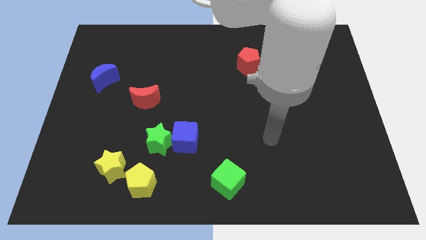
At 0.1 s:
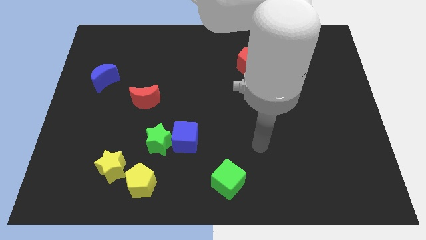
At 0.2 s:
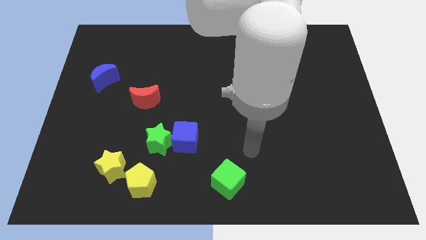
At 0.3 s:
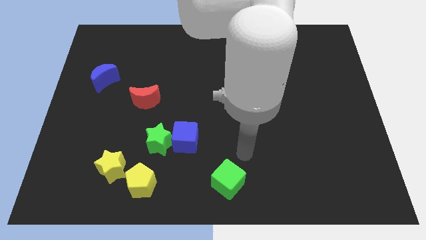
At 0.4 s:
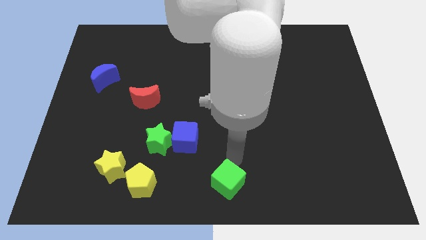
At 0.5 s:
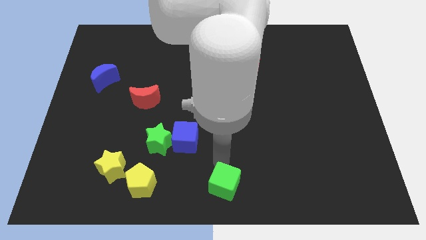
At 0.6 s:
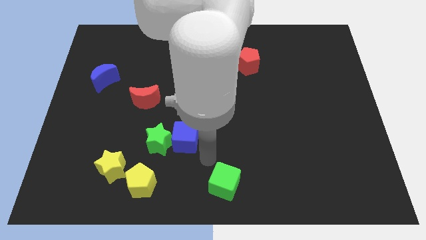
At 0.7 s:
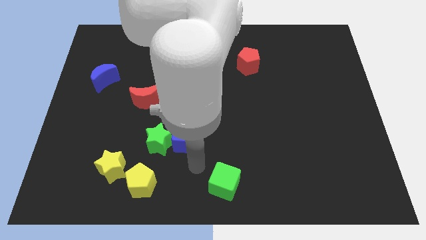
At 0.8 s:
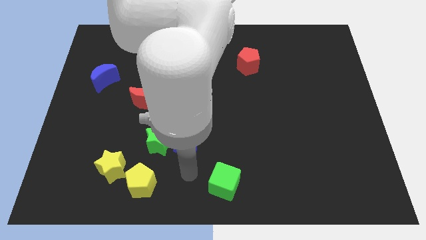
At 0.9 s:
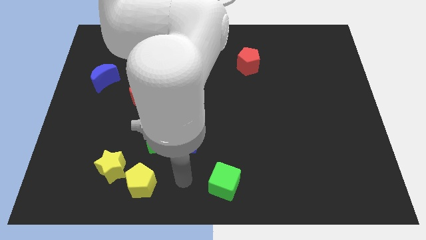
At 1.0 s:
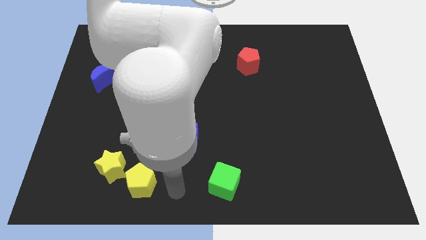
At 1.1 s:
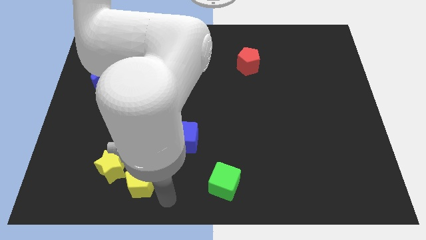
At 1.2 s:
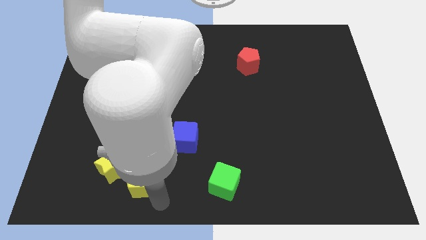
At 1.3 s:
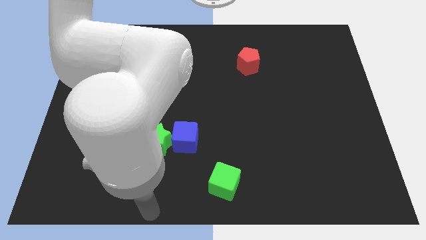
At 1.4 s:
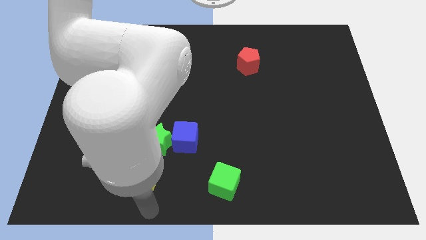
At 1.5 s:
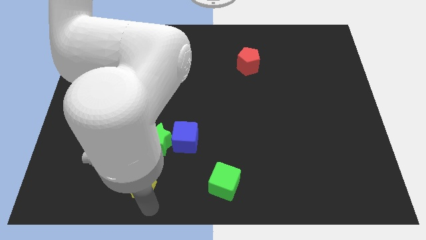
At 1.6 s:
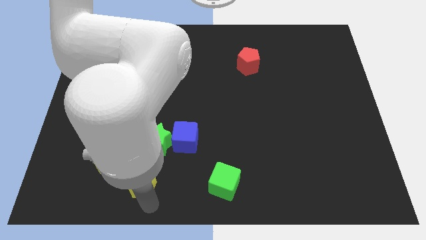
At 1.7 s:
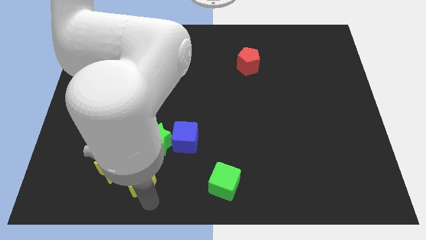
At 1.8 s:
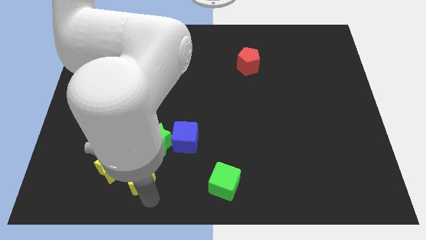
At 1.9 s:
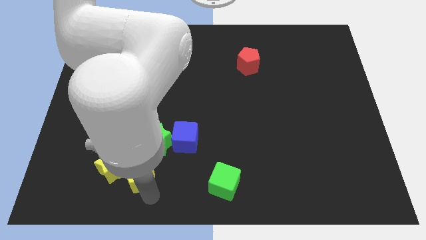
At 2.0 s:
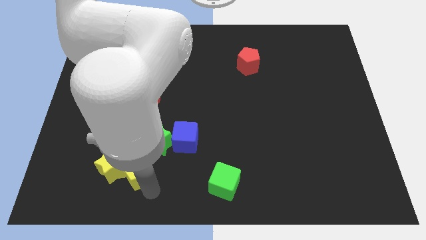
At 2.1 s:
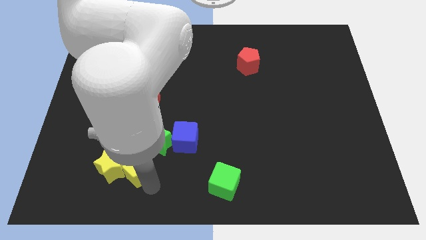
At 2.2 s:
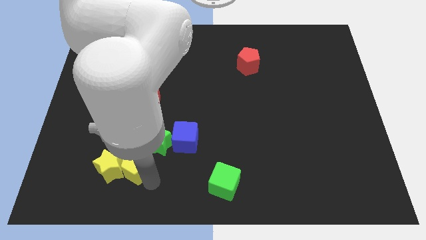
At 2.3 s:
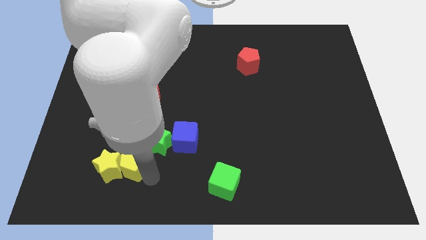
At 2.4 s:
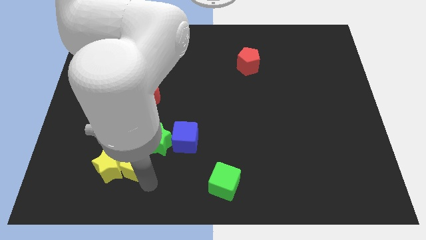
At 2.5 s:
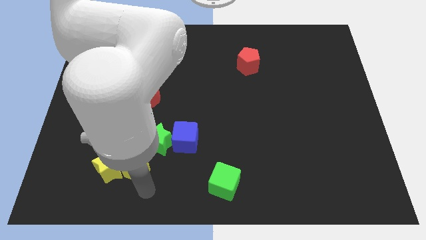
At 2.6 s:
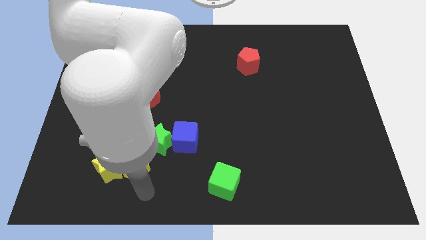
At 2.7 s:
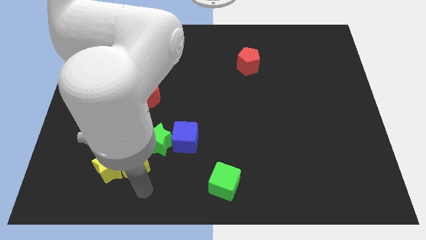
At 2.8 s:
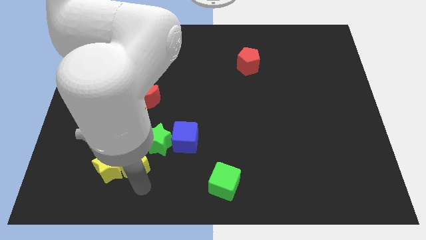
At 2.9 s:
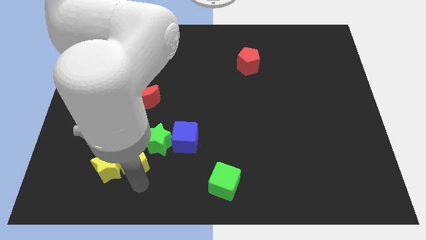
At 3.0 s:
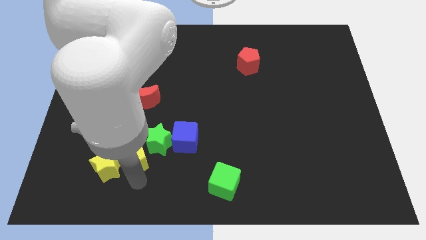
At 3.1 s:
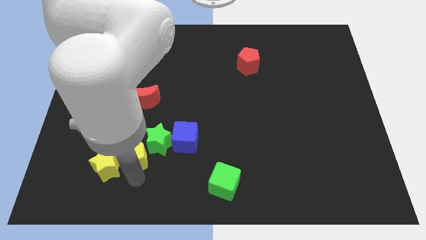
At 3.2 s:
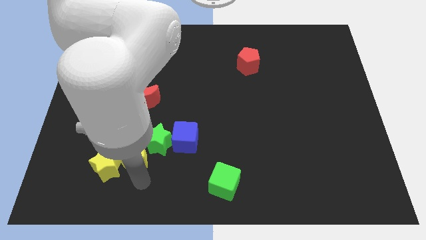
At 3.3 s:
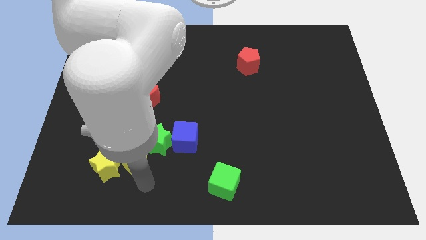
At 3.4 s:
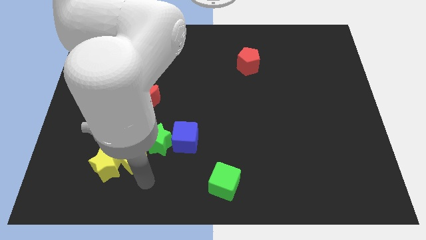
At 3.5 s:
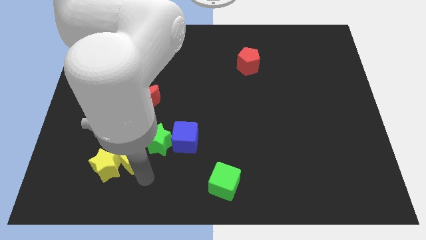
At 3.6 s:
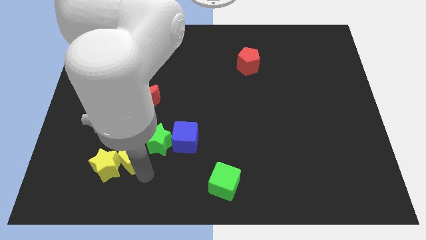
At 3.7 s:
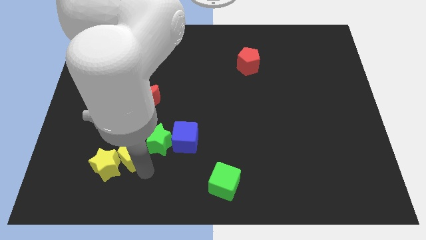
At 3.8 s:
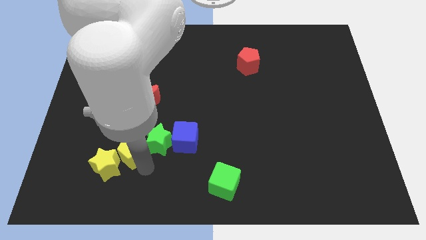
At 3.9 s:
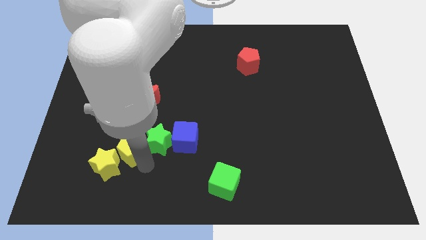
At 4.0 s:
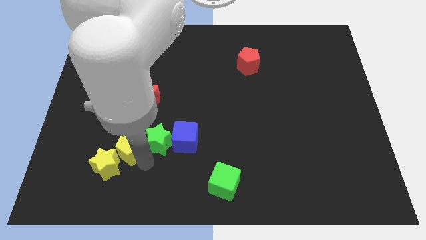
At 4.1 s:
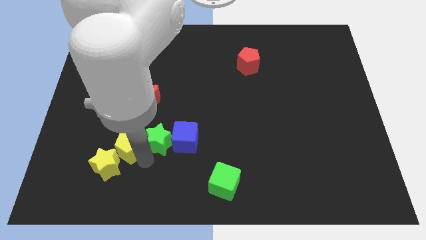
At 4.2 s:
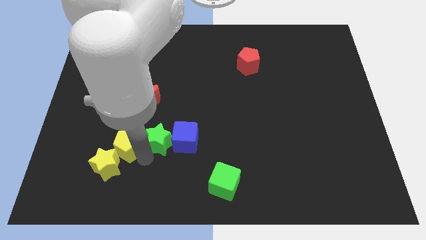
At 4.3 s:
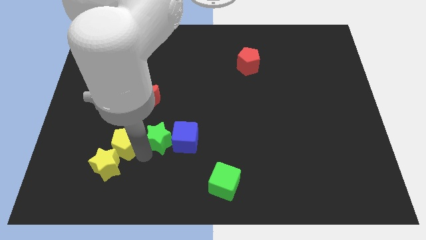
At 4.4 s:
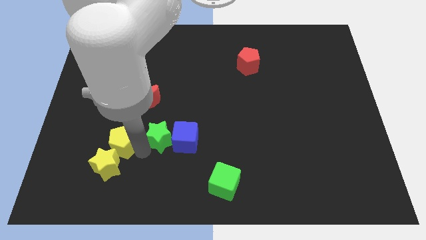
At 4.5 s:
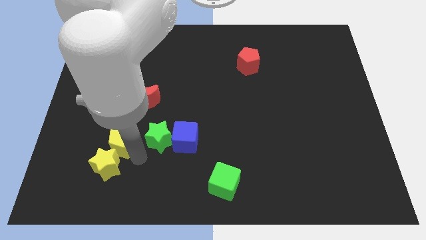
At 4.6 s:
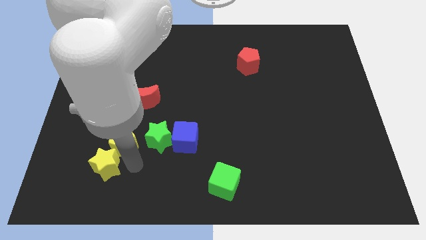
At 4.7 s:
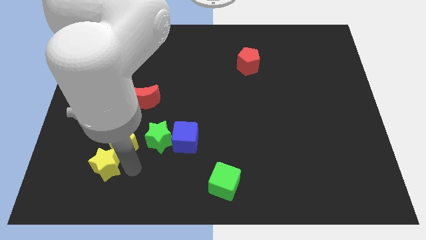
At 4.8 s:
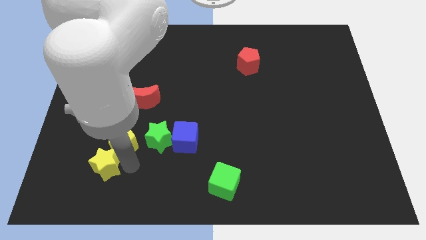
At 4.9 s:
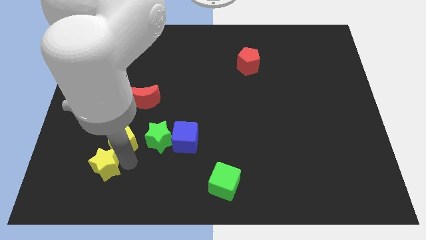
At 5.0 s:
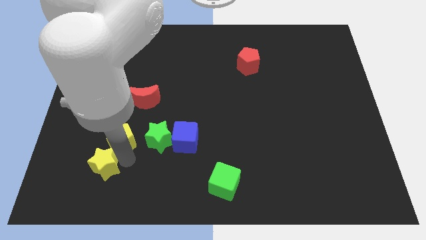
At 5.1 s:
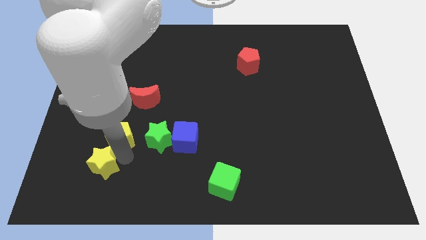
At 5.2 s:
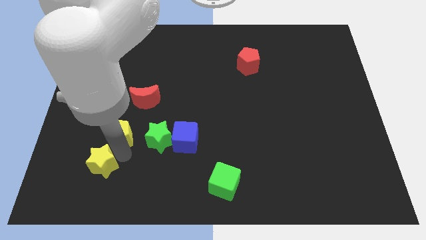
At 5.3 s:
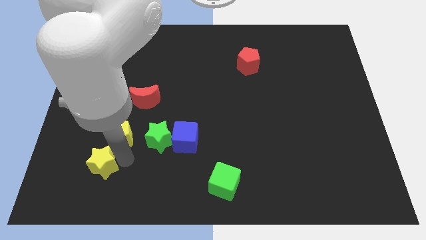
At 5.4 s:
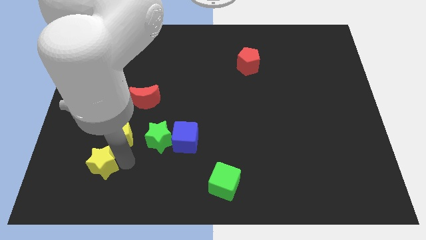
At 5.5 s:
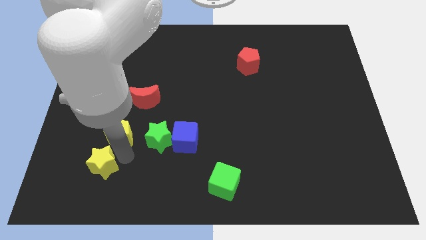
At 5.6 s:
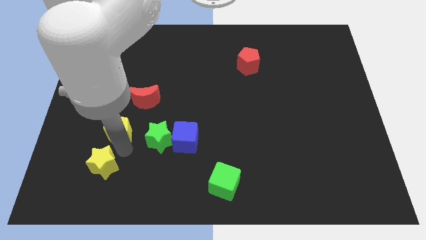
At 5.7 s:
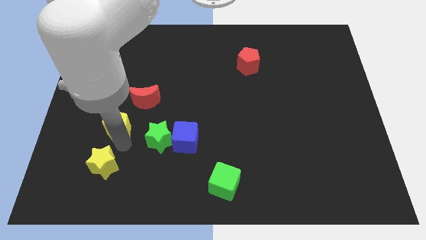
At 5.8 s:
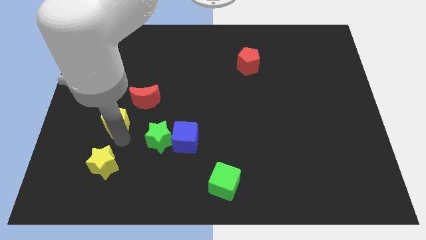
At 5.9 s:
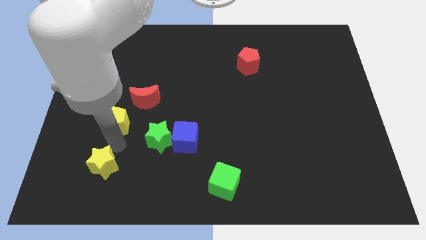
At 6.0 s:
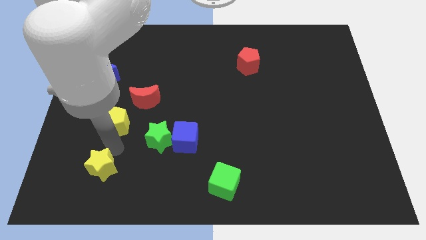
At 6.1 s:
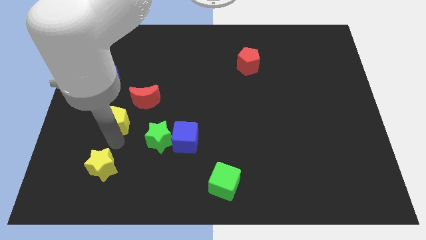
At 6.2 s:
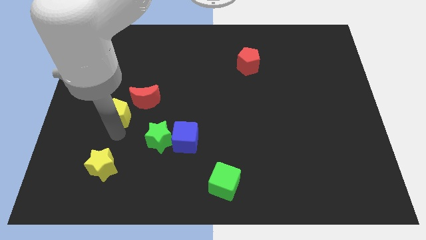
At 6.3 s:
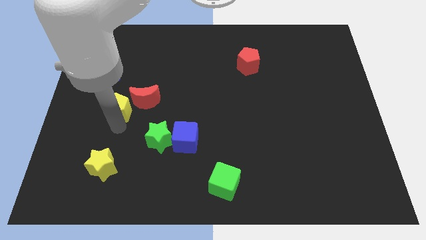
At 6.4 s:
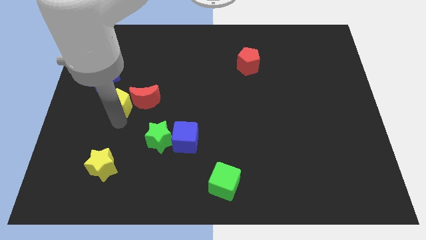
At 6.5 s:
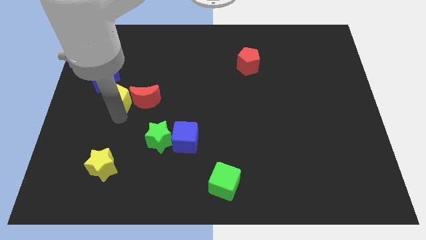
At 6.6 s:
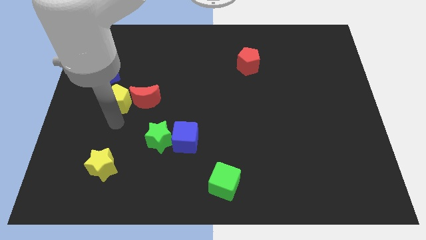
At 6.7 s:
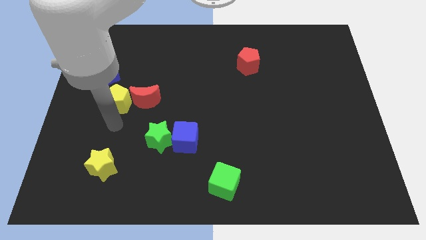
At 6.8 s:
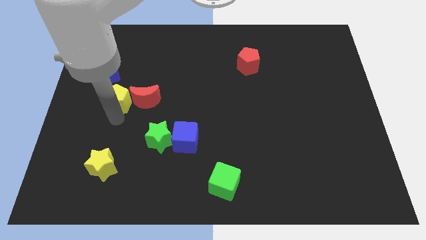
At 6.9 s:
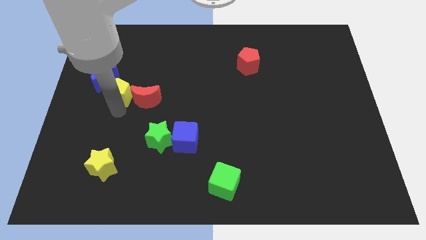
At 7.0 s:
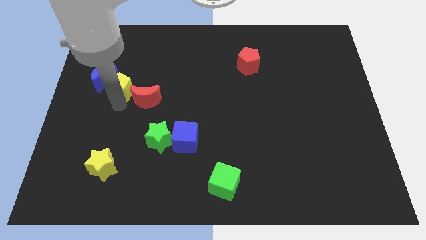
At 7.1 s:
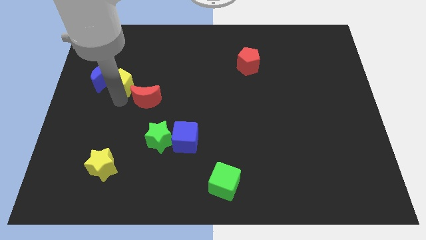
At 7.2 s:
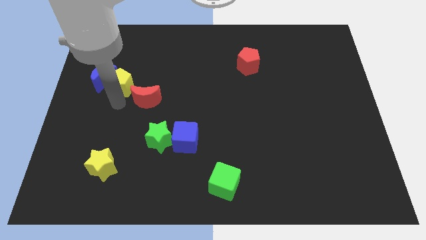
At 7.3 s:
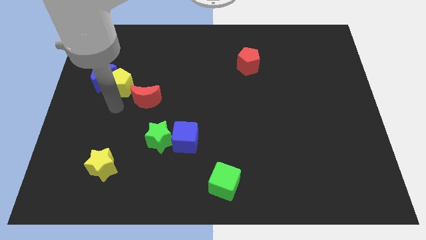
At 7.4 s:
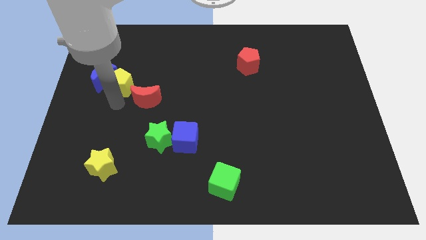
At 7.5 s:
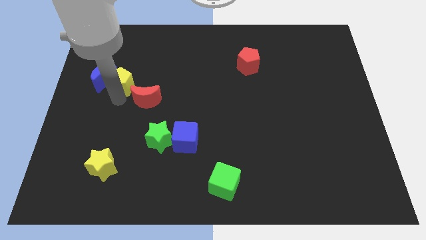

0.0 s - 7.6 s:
push the yellow pentagon to the top right of the blue moon

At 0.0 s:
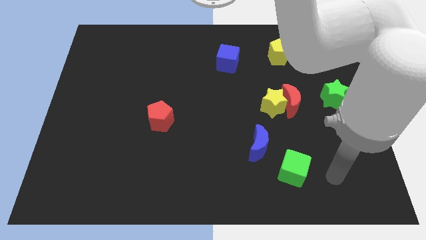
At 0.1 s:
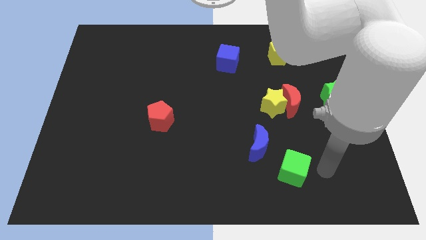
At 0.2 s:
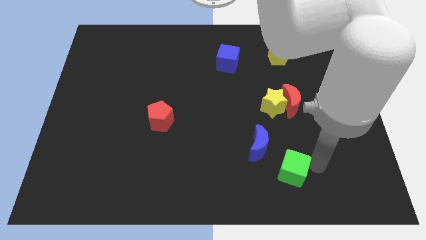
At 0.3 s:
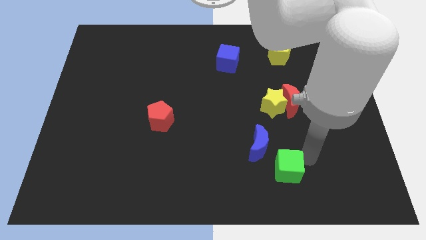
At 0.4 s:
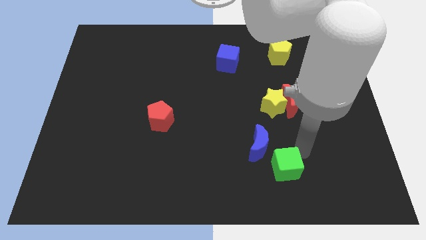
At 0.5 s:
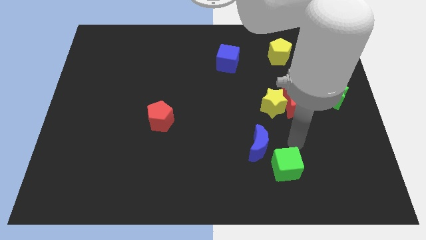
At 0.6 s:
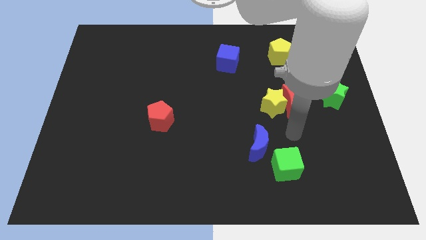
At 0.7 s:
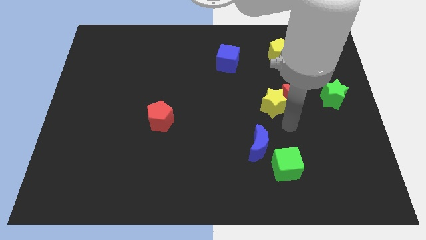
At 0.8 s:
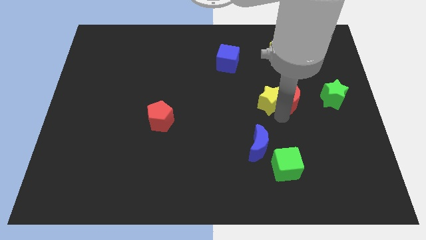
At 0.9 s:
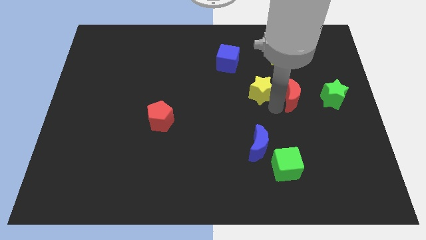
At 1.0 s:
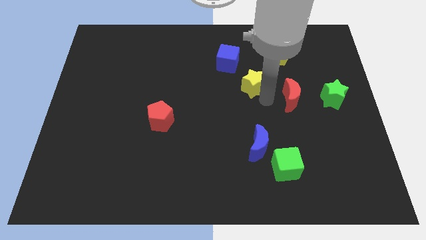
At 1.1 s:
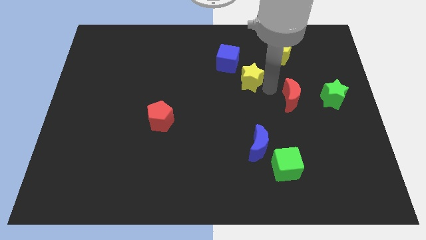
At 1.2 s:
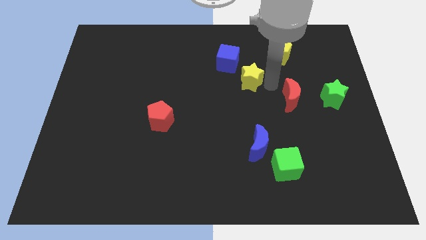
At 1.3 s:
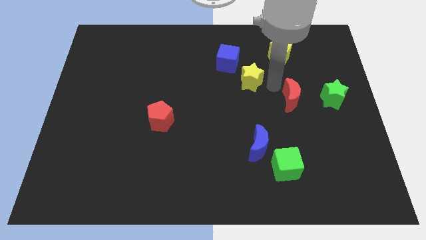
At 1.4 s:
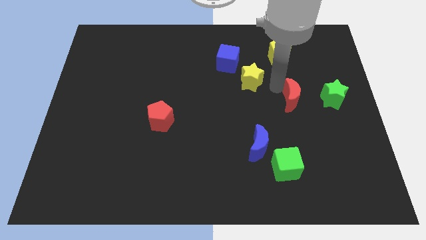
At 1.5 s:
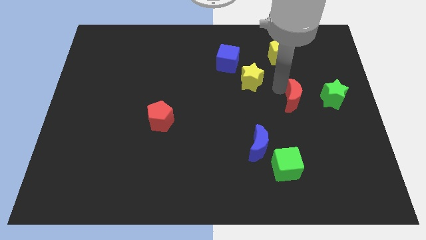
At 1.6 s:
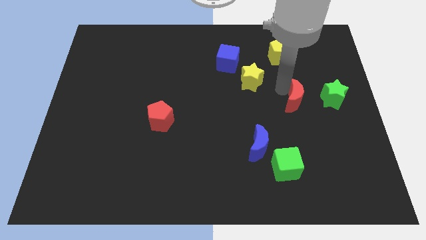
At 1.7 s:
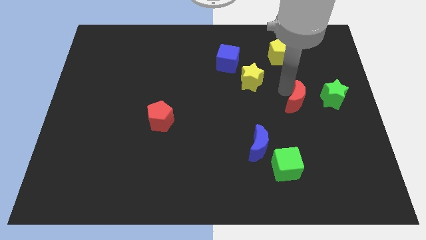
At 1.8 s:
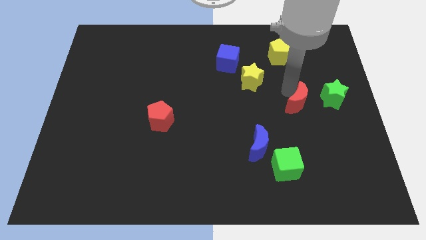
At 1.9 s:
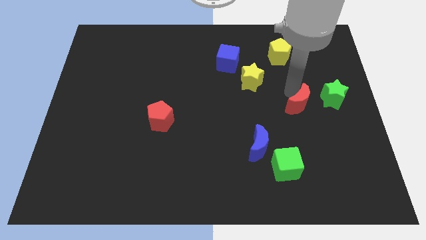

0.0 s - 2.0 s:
push the red moon to the bottom left of the green star
